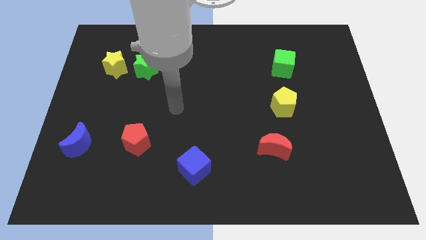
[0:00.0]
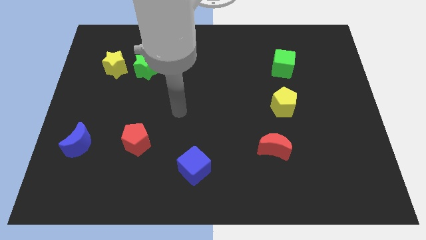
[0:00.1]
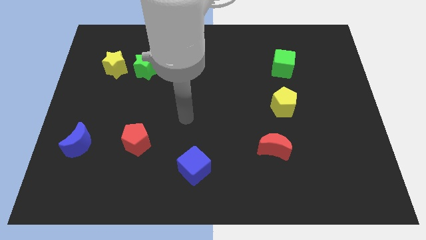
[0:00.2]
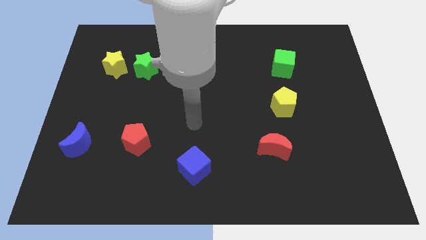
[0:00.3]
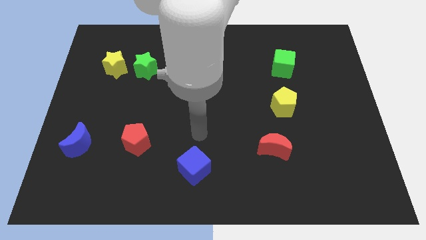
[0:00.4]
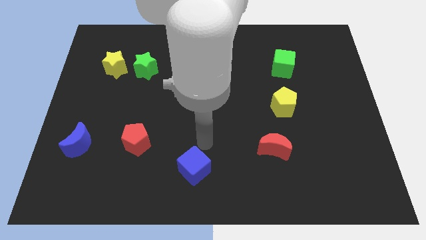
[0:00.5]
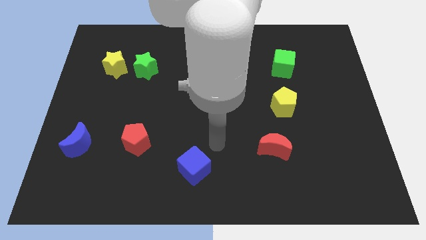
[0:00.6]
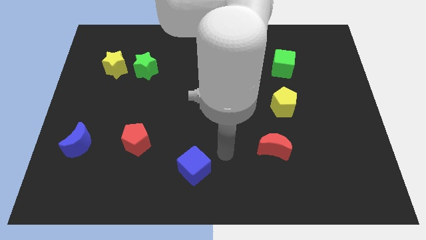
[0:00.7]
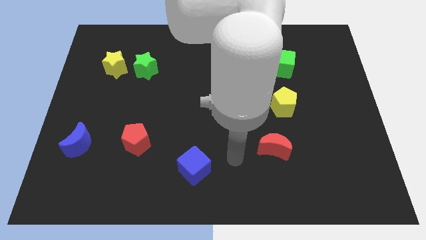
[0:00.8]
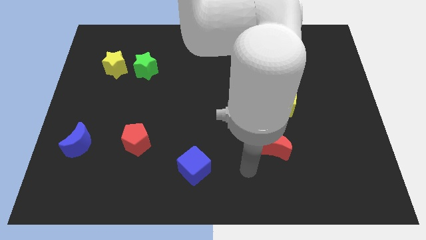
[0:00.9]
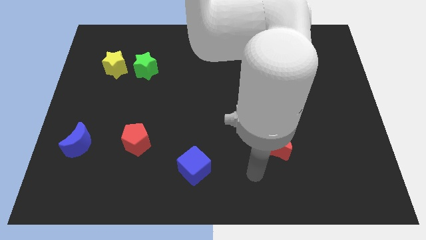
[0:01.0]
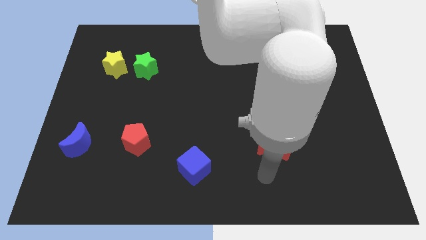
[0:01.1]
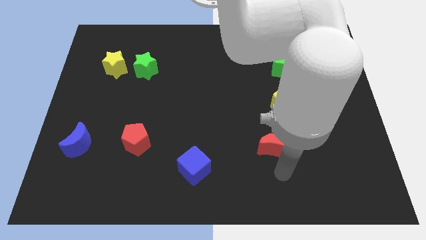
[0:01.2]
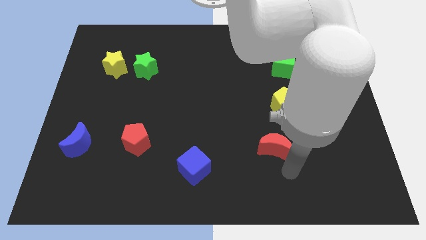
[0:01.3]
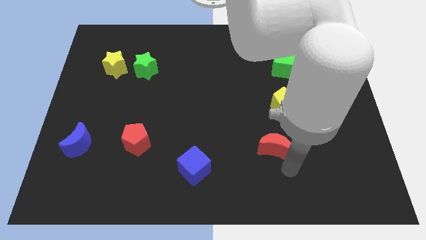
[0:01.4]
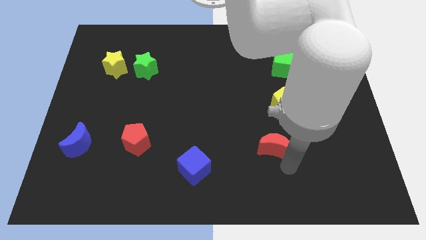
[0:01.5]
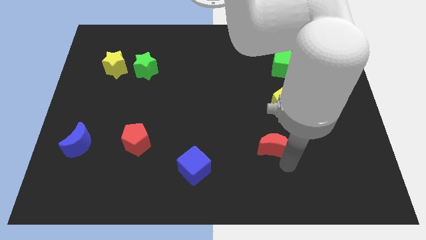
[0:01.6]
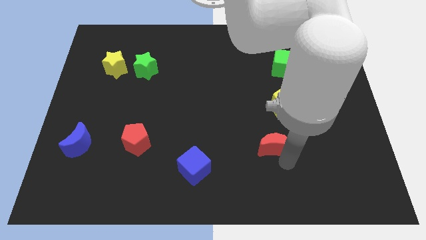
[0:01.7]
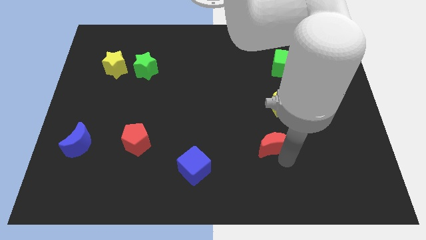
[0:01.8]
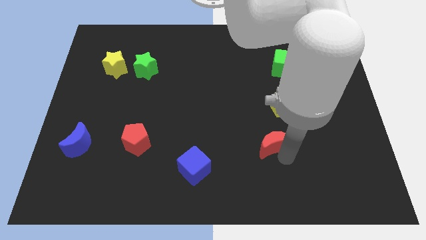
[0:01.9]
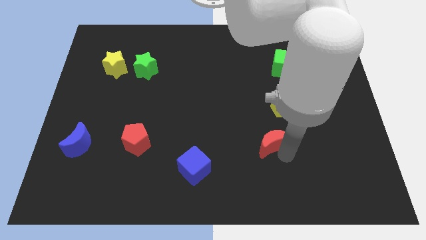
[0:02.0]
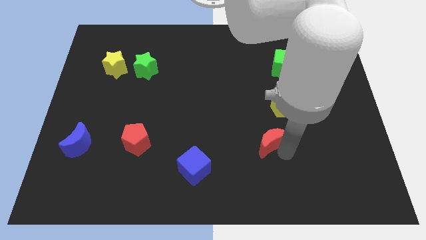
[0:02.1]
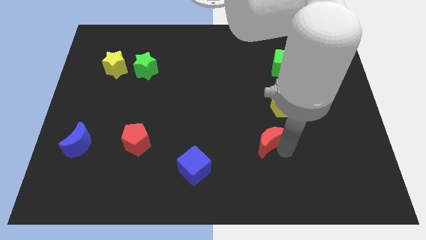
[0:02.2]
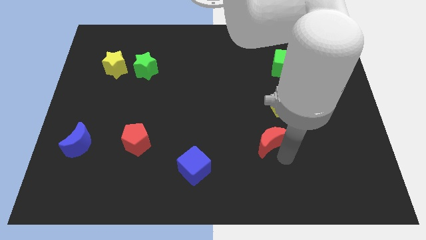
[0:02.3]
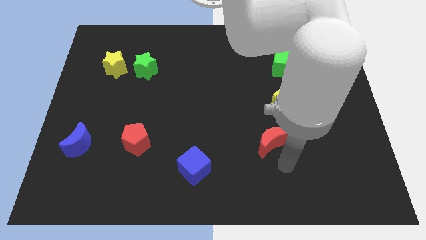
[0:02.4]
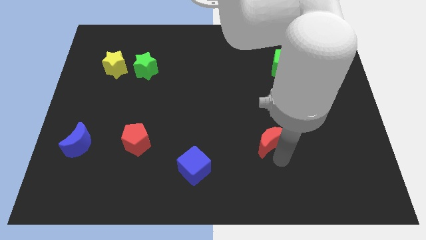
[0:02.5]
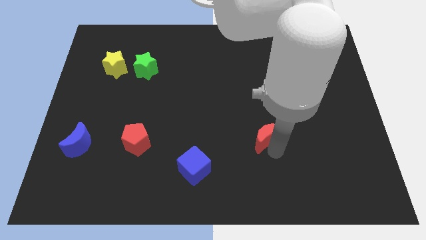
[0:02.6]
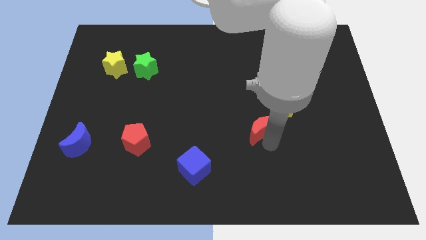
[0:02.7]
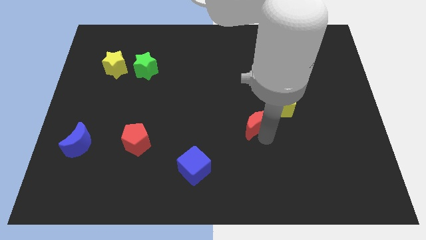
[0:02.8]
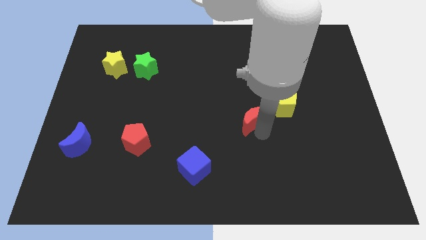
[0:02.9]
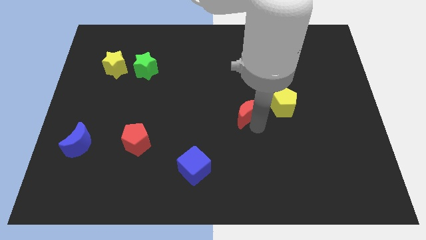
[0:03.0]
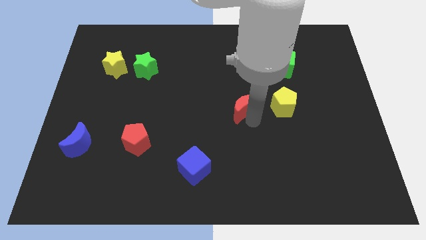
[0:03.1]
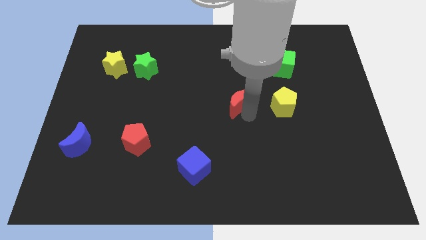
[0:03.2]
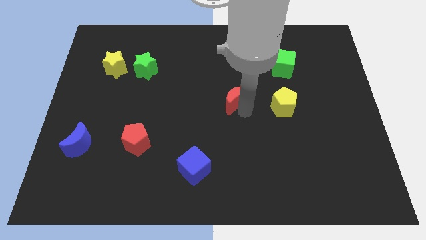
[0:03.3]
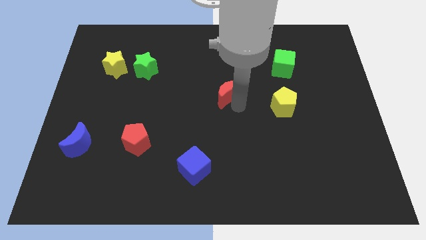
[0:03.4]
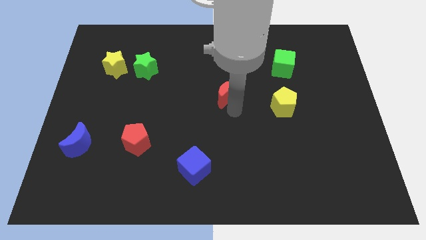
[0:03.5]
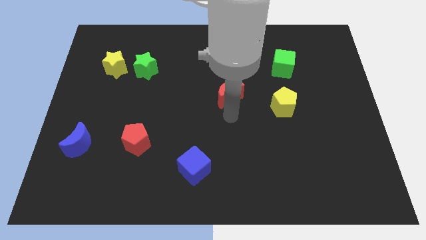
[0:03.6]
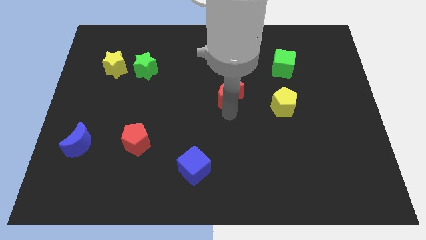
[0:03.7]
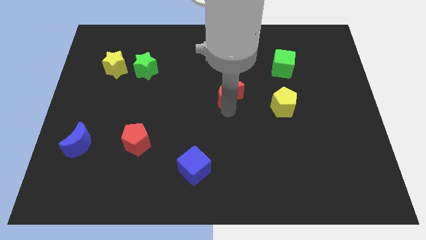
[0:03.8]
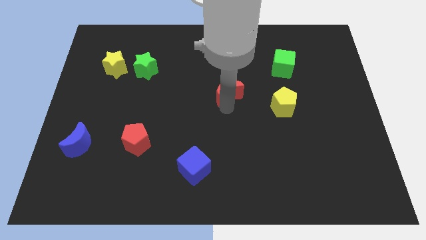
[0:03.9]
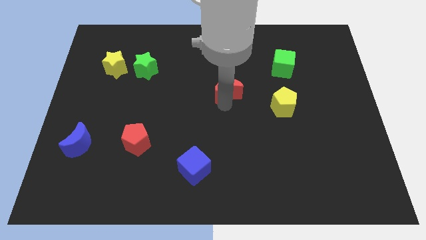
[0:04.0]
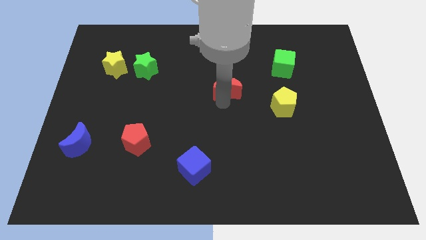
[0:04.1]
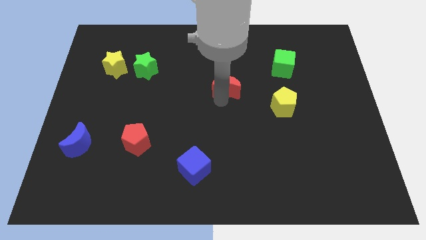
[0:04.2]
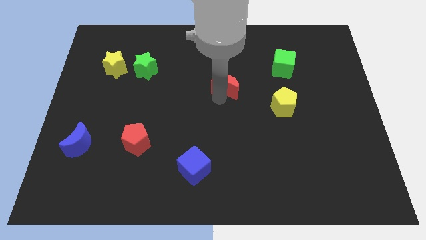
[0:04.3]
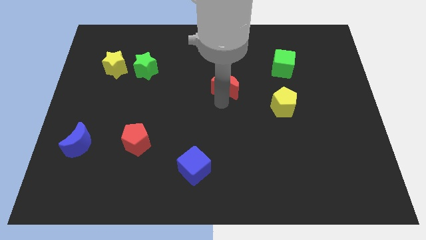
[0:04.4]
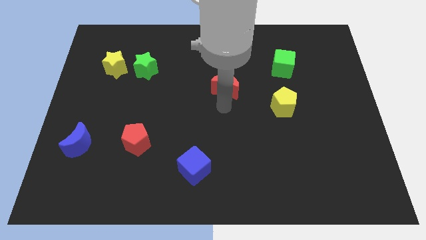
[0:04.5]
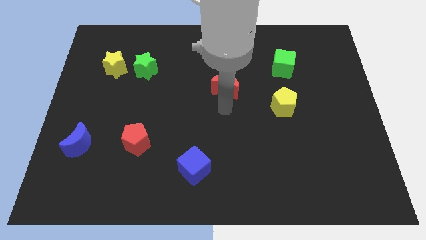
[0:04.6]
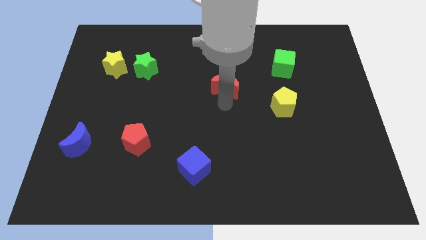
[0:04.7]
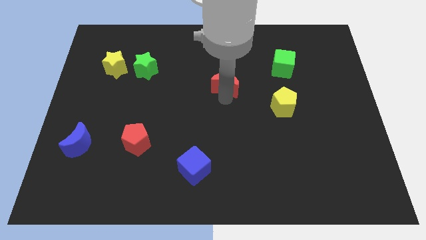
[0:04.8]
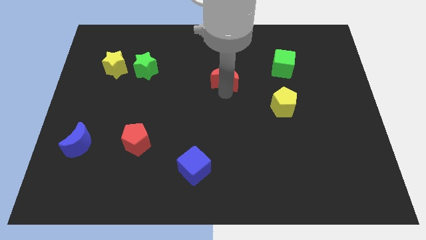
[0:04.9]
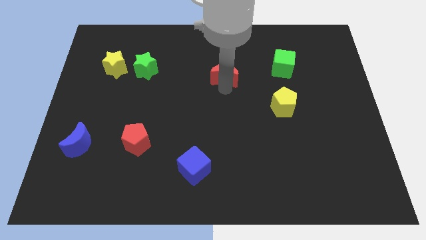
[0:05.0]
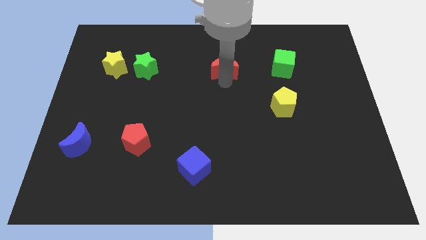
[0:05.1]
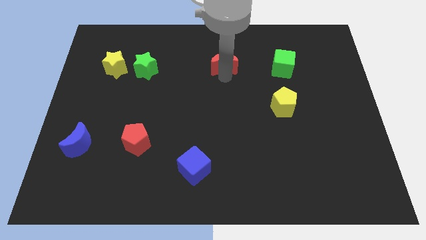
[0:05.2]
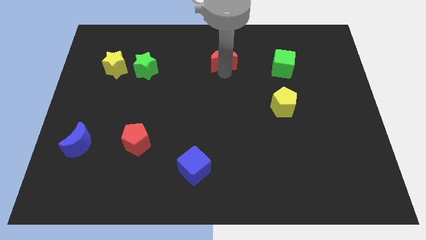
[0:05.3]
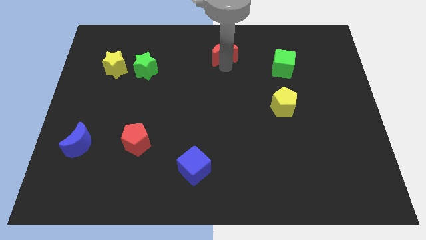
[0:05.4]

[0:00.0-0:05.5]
push the red moon to the towards your base

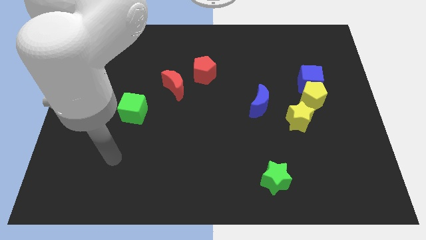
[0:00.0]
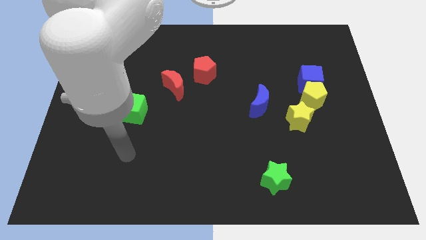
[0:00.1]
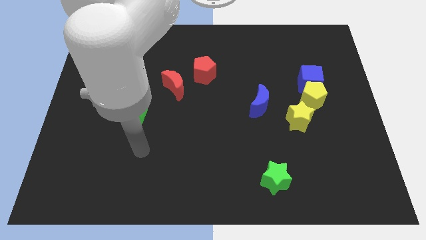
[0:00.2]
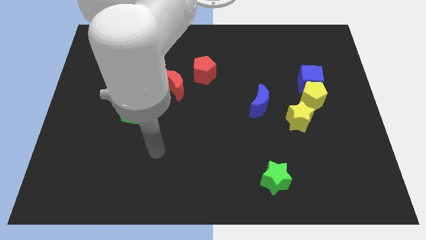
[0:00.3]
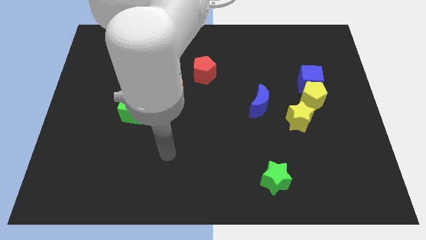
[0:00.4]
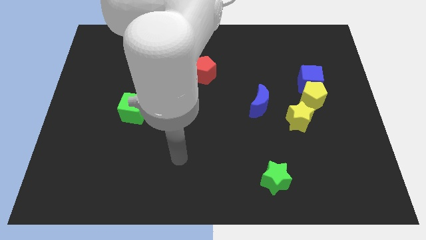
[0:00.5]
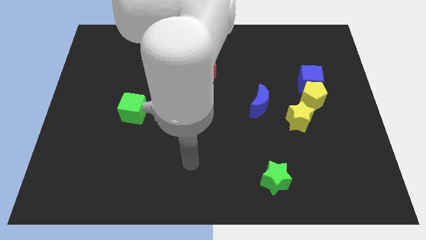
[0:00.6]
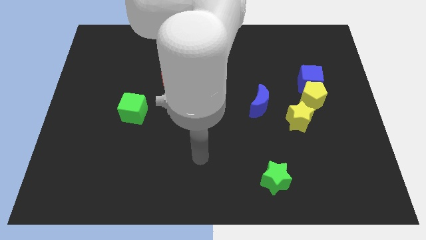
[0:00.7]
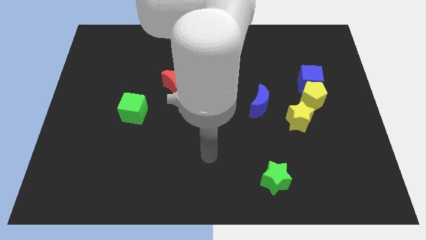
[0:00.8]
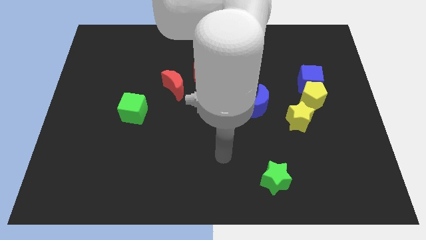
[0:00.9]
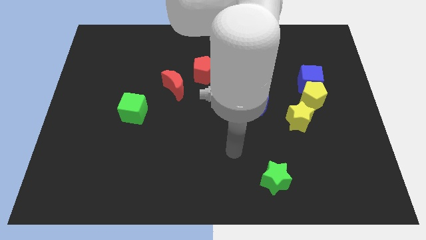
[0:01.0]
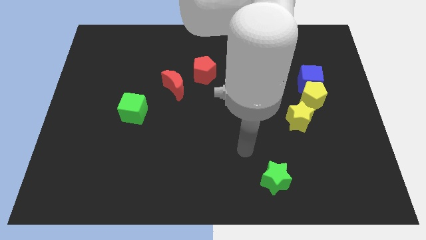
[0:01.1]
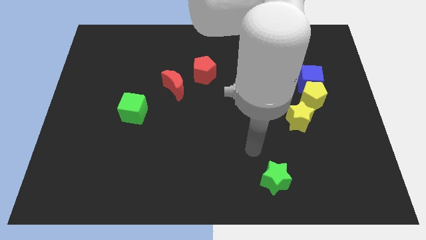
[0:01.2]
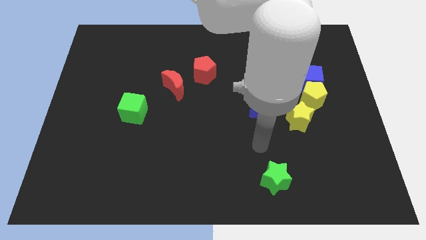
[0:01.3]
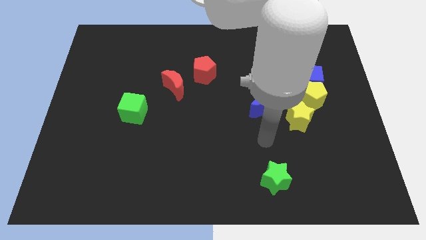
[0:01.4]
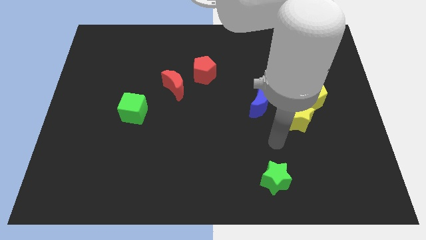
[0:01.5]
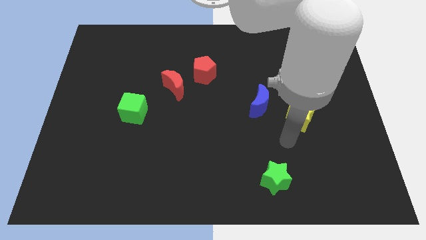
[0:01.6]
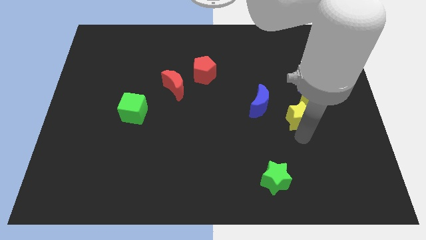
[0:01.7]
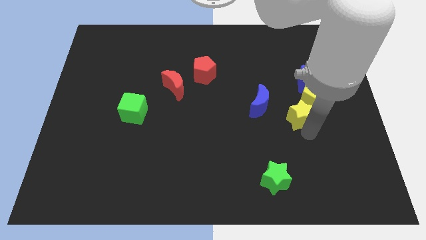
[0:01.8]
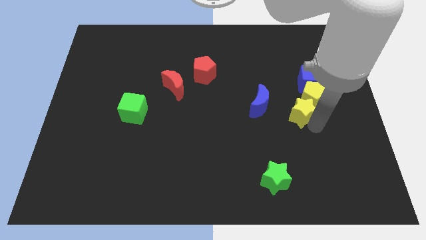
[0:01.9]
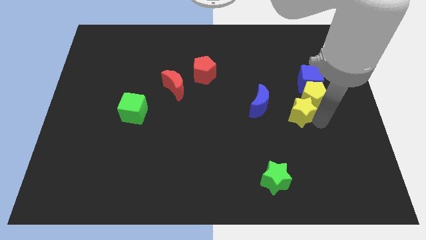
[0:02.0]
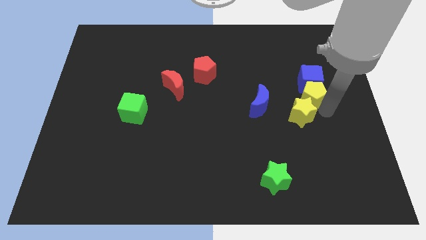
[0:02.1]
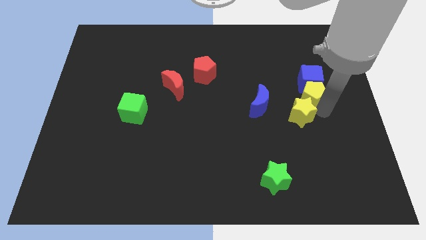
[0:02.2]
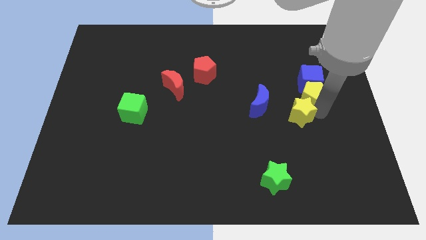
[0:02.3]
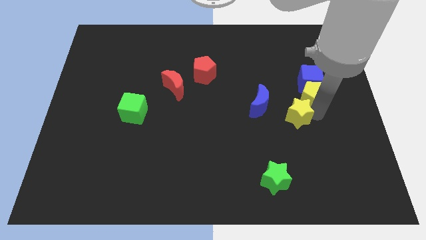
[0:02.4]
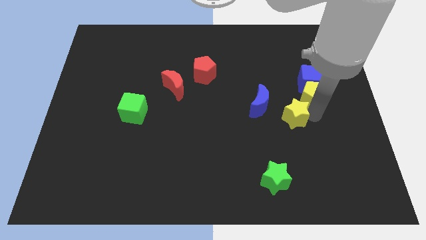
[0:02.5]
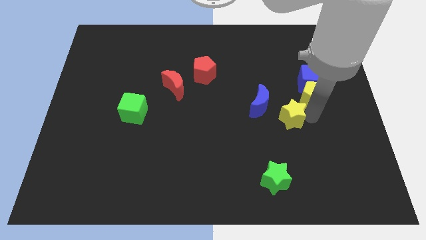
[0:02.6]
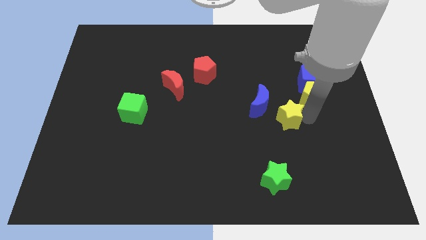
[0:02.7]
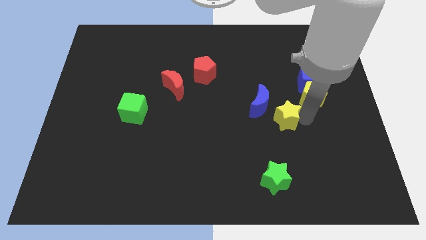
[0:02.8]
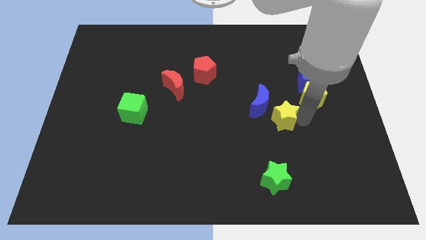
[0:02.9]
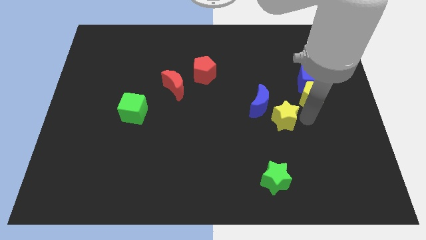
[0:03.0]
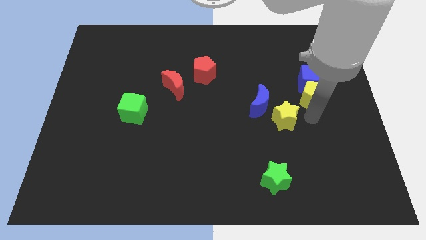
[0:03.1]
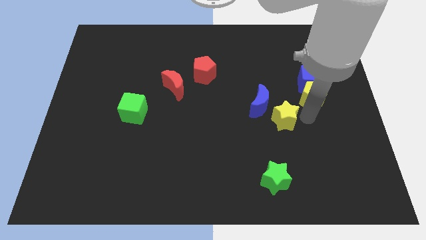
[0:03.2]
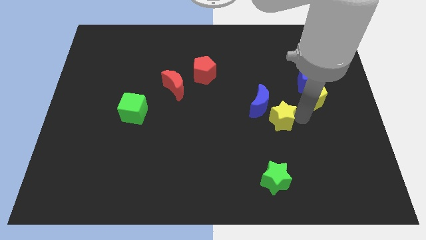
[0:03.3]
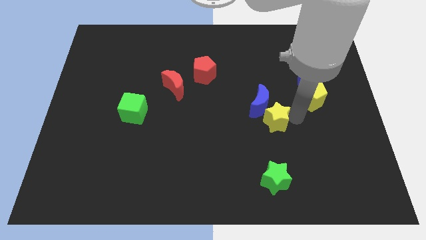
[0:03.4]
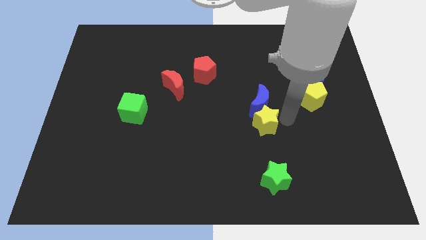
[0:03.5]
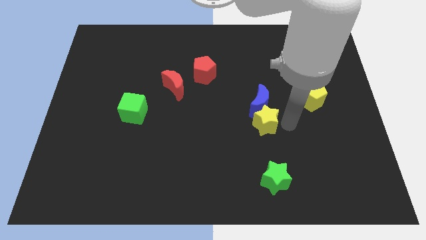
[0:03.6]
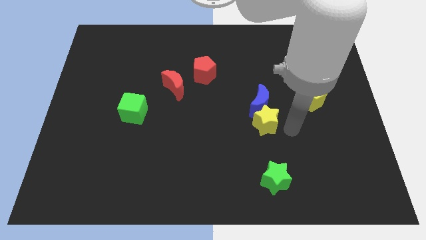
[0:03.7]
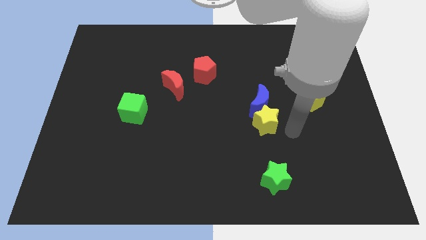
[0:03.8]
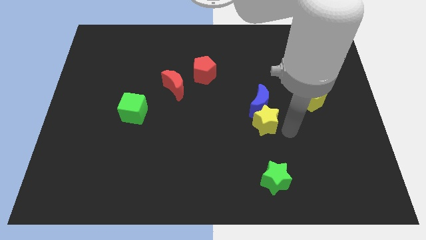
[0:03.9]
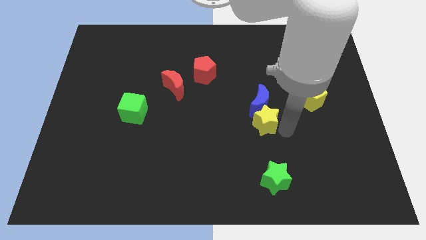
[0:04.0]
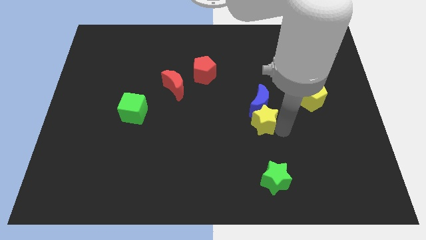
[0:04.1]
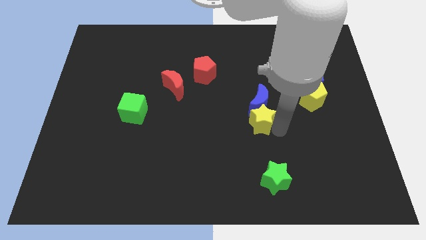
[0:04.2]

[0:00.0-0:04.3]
push the yellow star to the center
